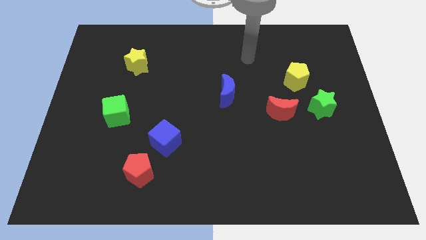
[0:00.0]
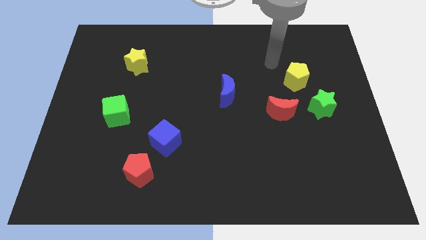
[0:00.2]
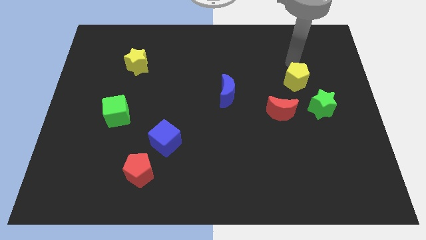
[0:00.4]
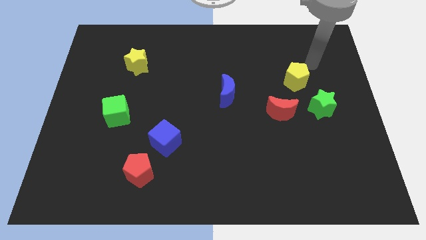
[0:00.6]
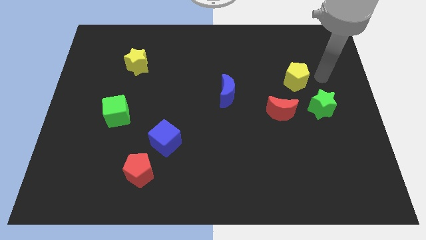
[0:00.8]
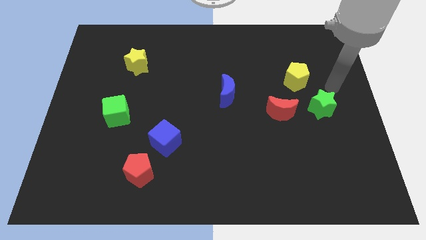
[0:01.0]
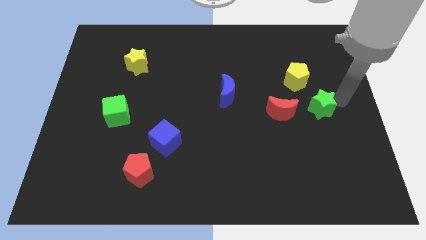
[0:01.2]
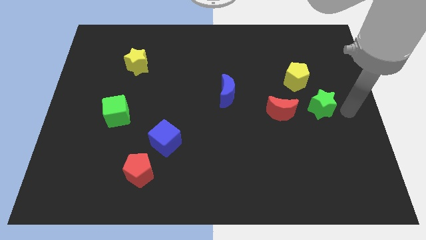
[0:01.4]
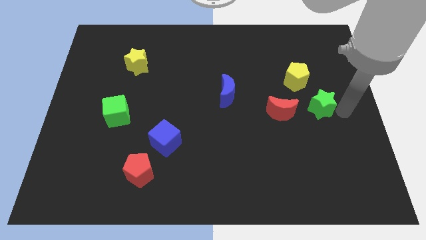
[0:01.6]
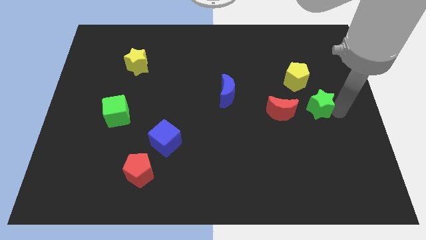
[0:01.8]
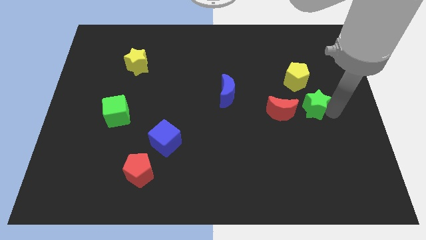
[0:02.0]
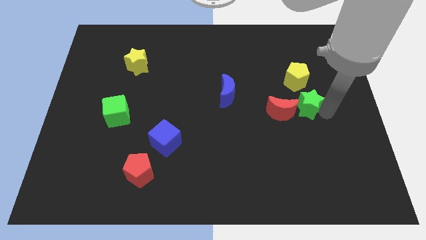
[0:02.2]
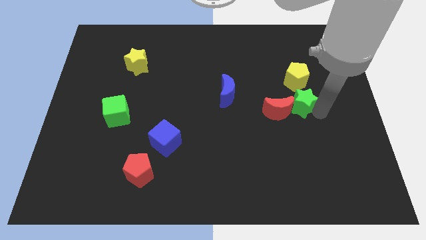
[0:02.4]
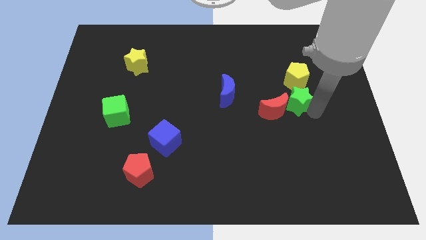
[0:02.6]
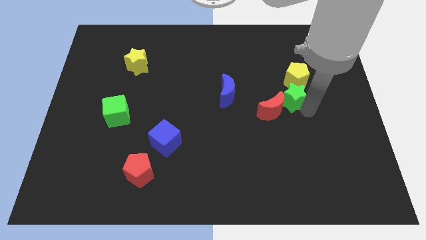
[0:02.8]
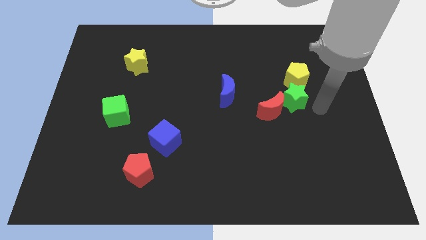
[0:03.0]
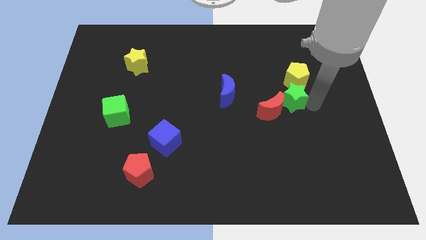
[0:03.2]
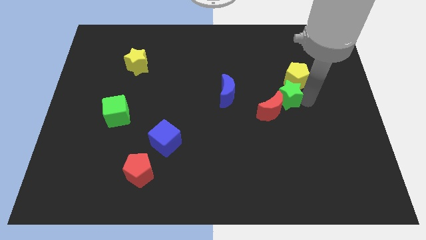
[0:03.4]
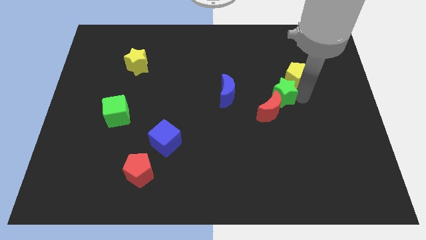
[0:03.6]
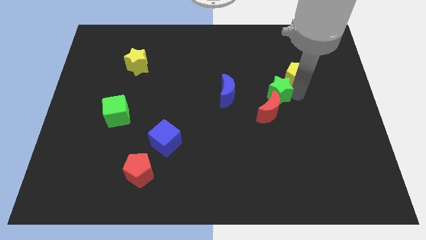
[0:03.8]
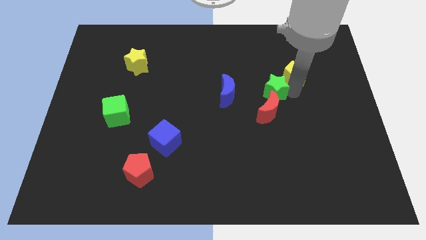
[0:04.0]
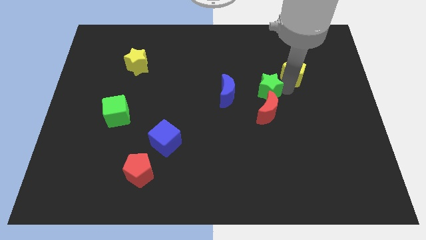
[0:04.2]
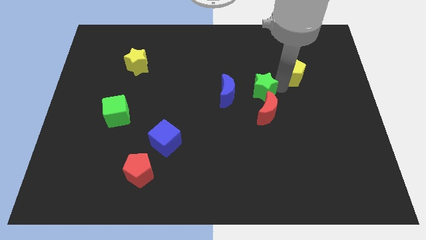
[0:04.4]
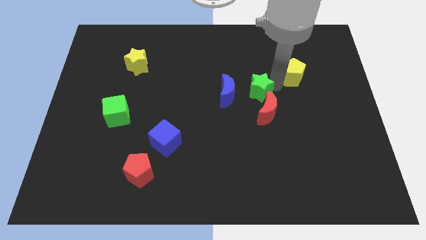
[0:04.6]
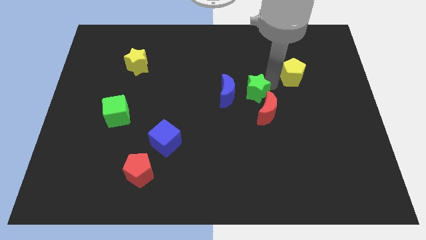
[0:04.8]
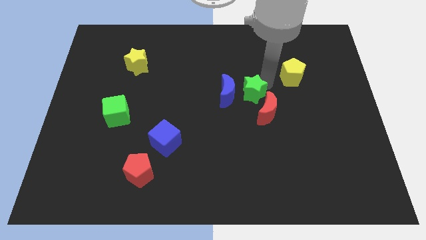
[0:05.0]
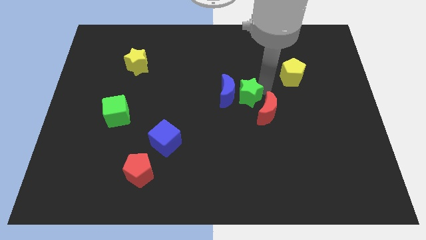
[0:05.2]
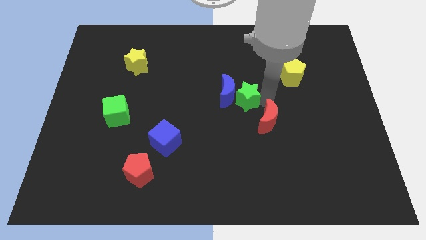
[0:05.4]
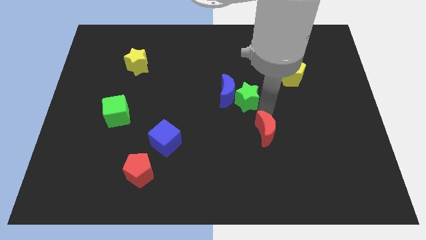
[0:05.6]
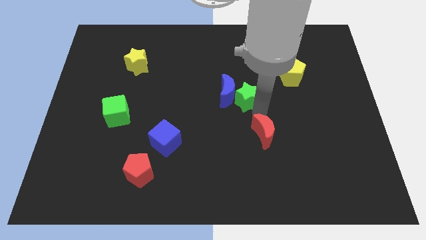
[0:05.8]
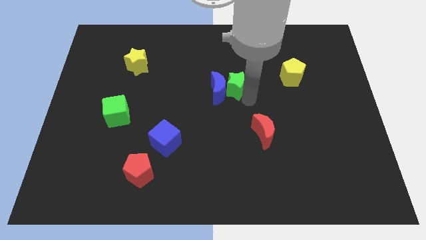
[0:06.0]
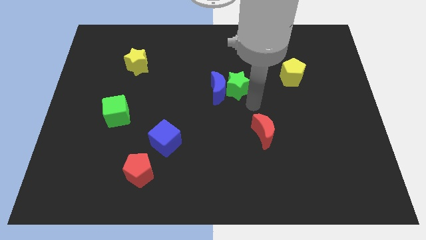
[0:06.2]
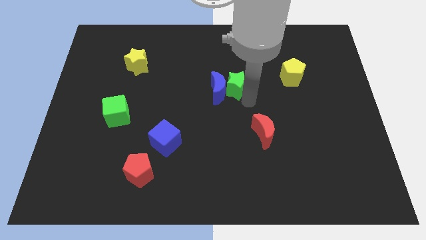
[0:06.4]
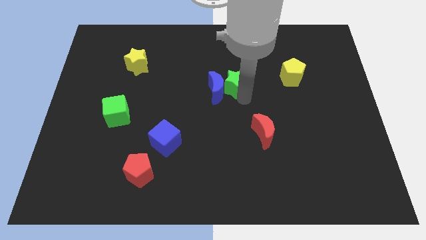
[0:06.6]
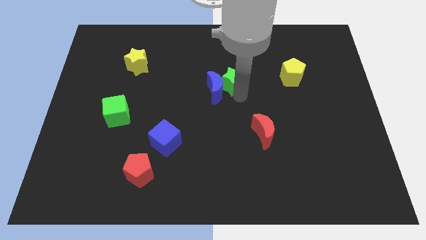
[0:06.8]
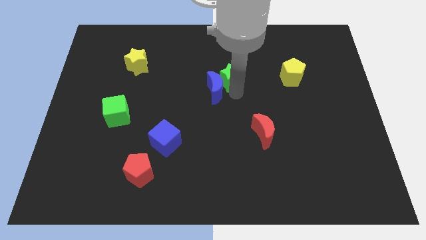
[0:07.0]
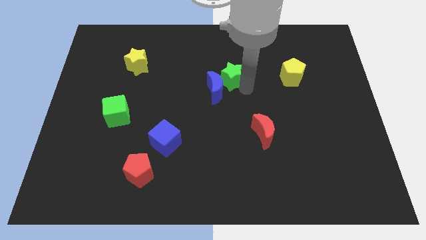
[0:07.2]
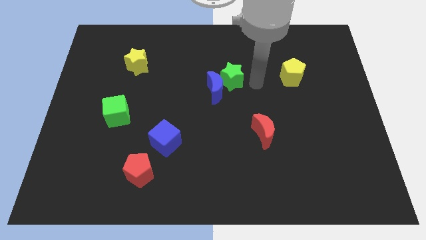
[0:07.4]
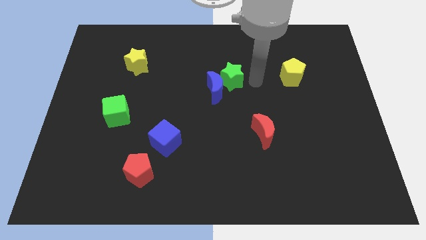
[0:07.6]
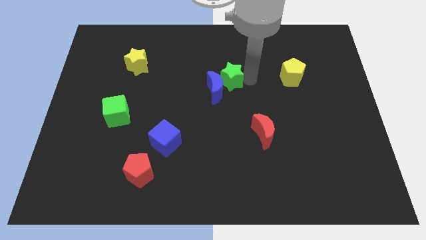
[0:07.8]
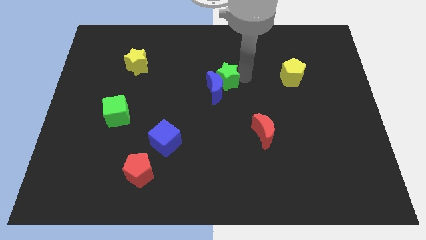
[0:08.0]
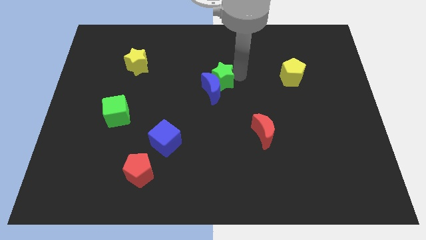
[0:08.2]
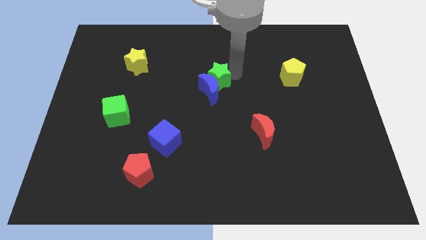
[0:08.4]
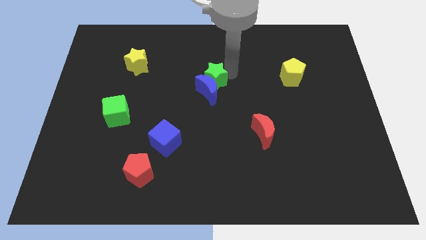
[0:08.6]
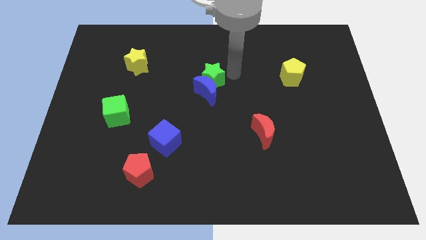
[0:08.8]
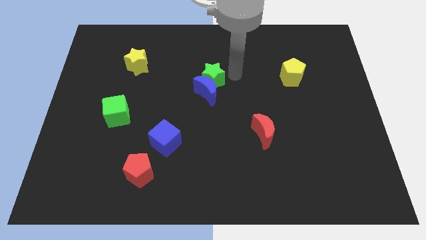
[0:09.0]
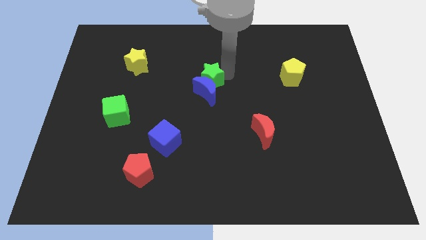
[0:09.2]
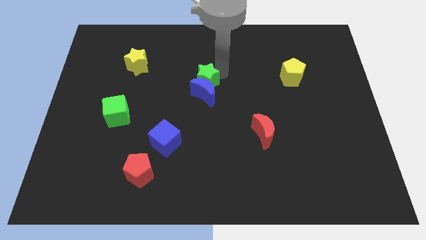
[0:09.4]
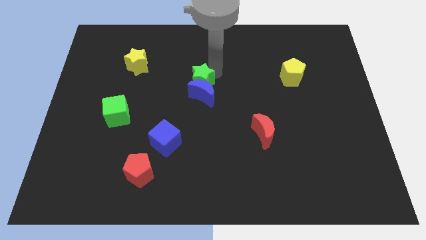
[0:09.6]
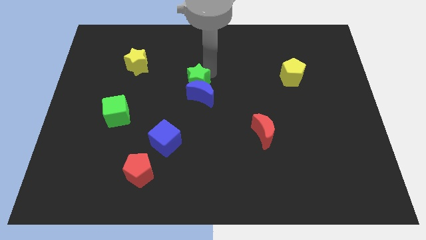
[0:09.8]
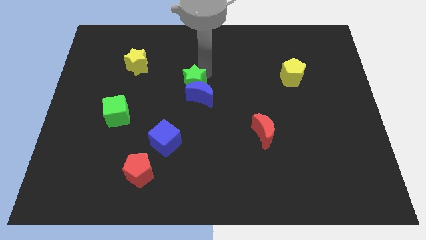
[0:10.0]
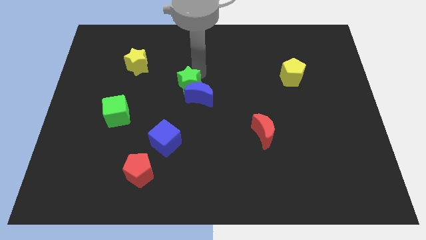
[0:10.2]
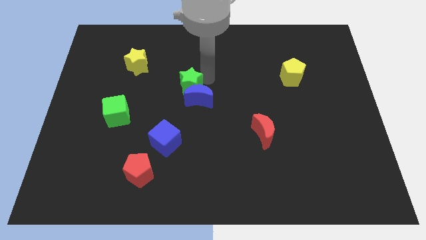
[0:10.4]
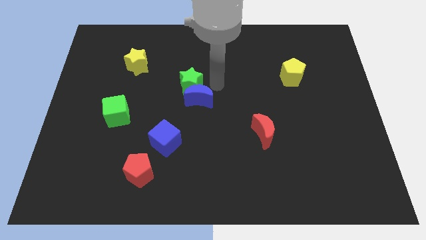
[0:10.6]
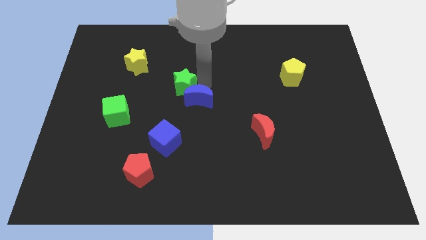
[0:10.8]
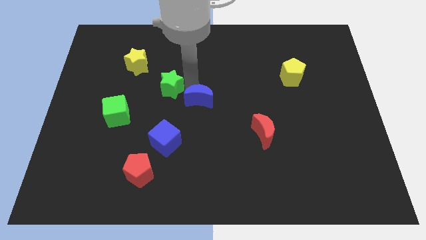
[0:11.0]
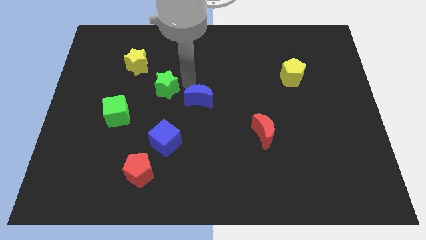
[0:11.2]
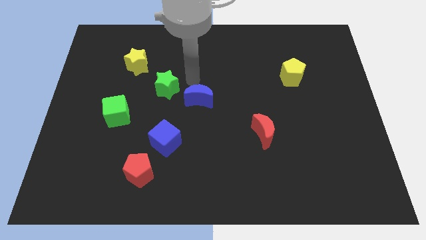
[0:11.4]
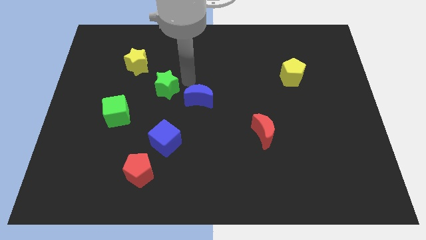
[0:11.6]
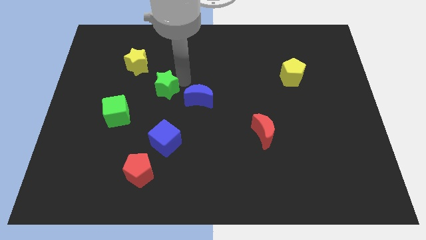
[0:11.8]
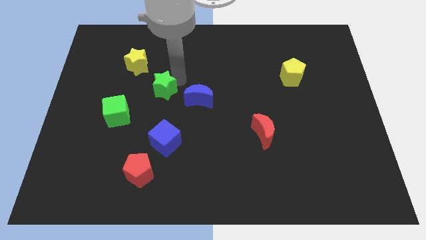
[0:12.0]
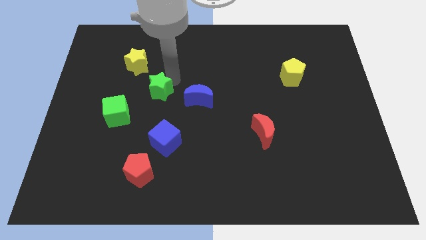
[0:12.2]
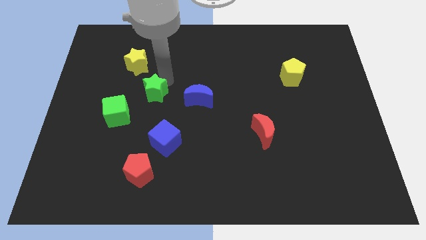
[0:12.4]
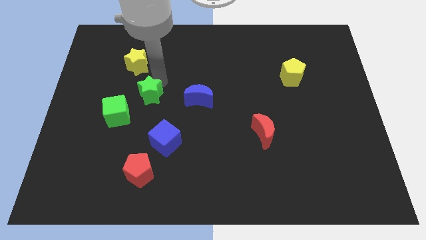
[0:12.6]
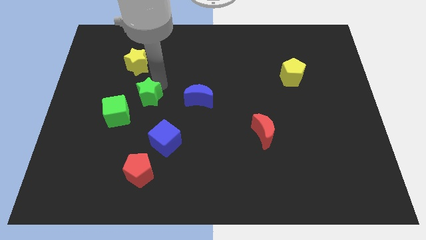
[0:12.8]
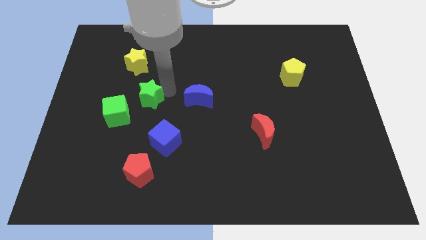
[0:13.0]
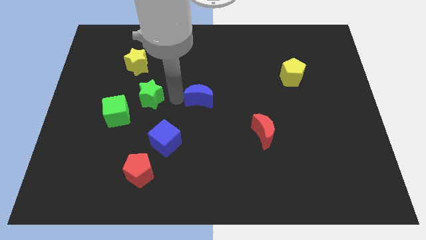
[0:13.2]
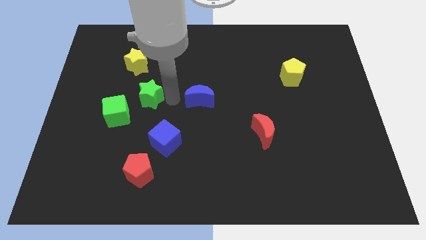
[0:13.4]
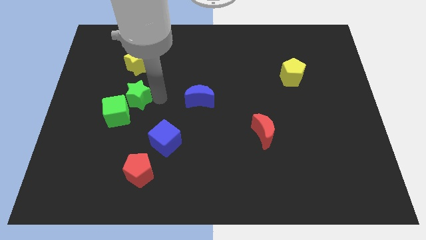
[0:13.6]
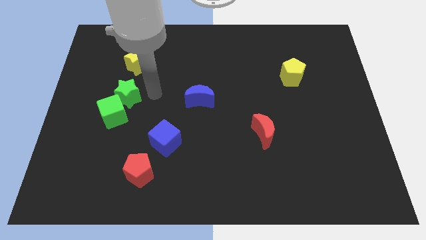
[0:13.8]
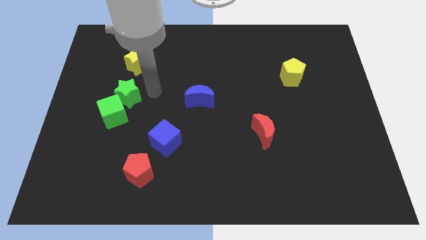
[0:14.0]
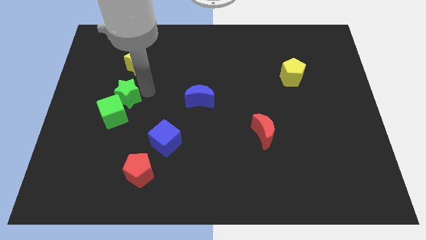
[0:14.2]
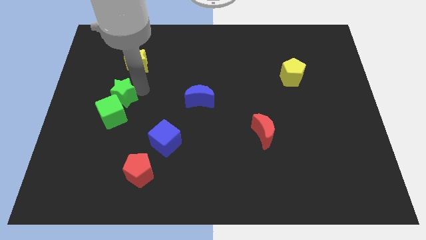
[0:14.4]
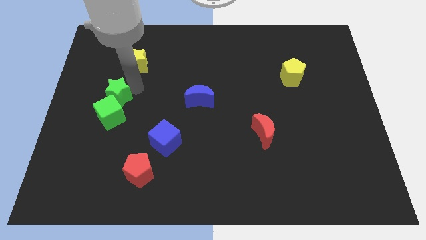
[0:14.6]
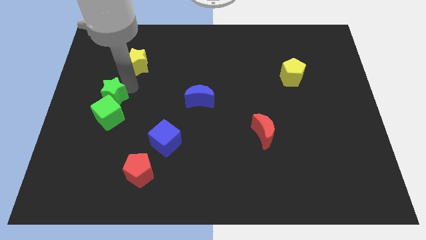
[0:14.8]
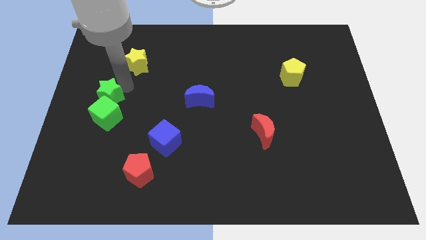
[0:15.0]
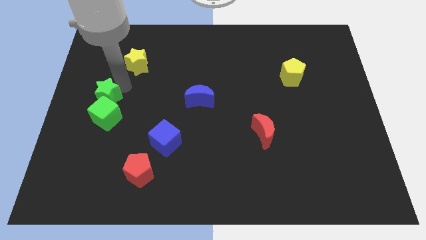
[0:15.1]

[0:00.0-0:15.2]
put the green star to the left side
